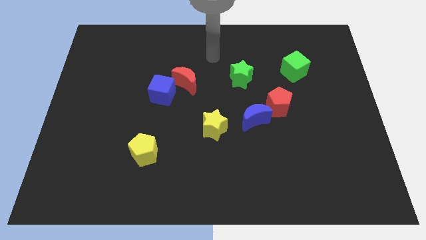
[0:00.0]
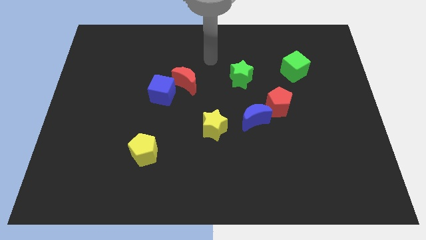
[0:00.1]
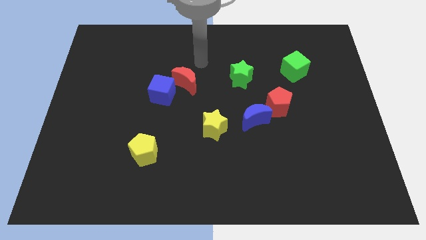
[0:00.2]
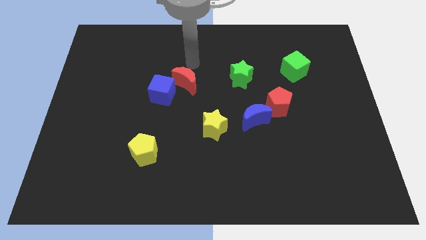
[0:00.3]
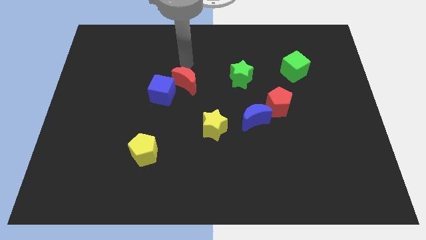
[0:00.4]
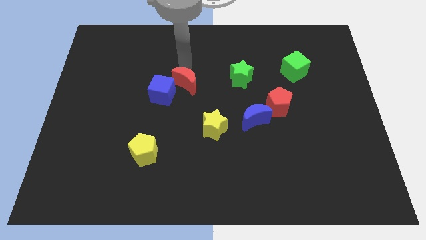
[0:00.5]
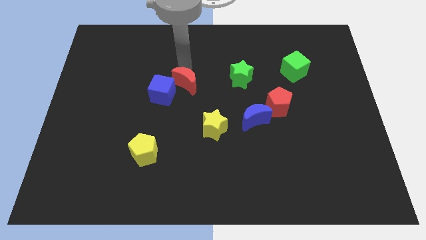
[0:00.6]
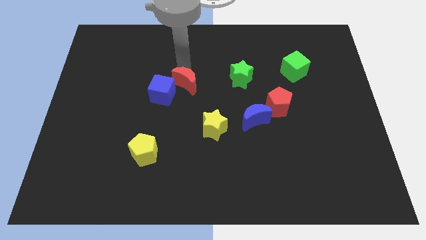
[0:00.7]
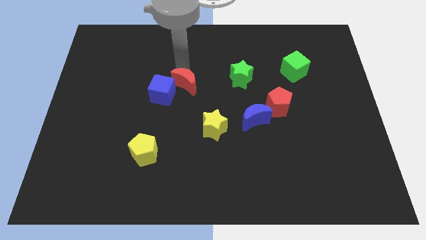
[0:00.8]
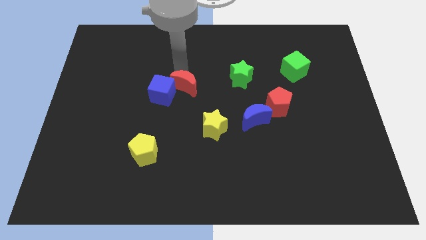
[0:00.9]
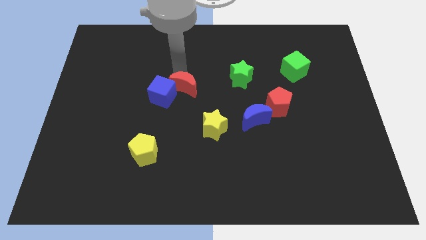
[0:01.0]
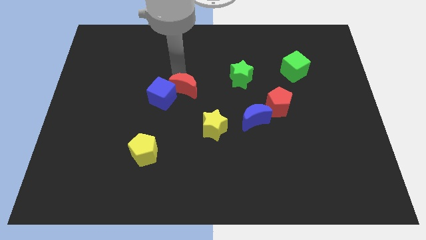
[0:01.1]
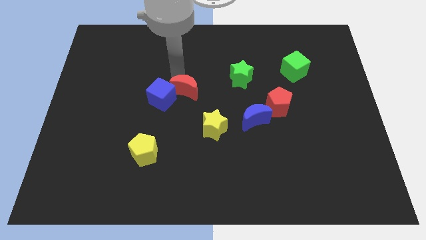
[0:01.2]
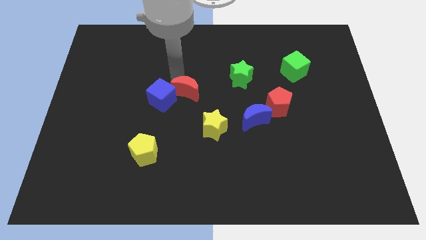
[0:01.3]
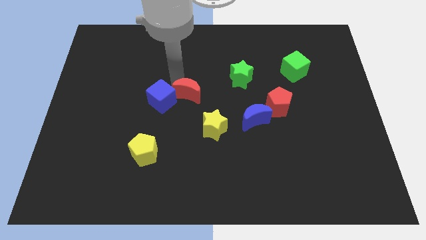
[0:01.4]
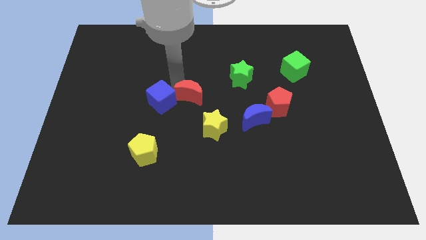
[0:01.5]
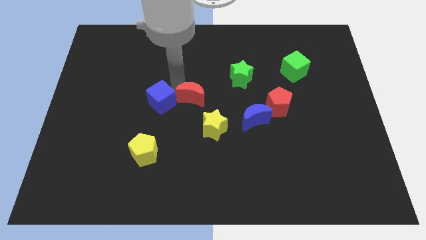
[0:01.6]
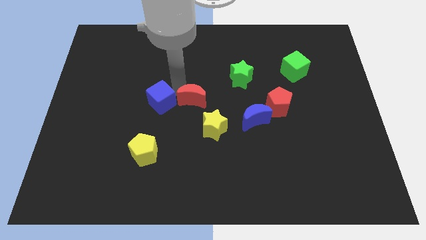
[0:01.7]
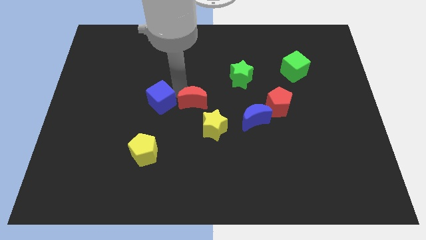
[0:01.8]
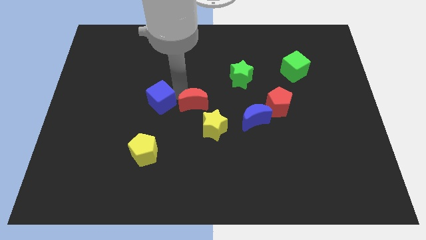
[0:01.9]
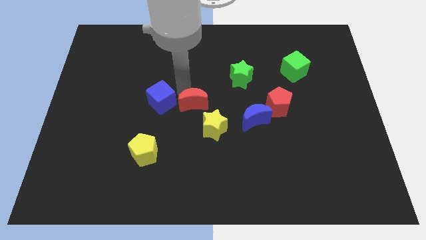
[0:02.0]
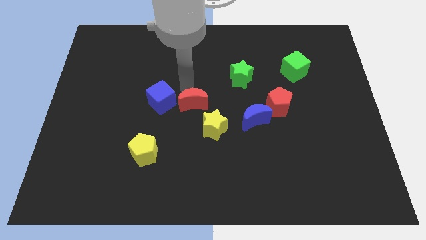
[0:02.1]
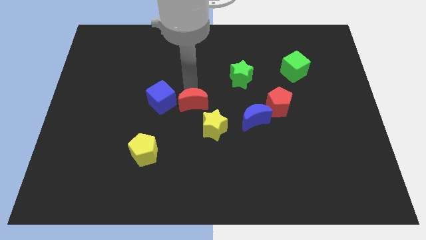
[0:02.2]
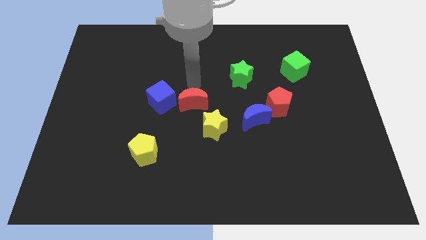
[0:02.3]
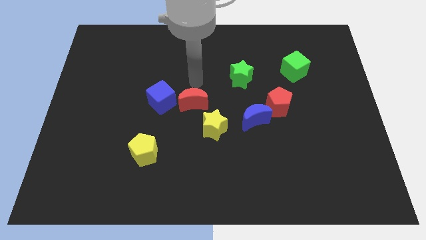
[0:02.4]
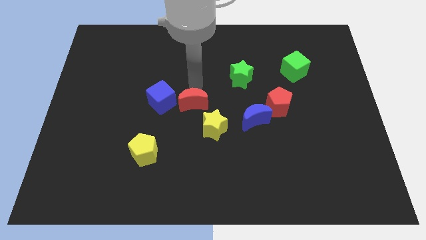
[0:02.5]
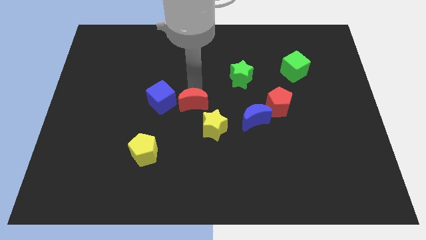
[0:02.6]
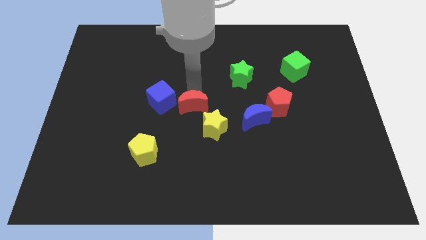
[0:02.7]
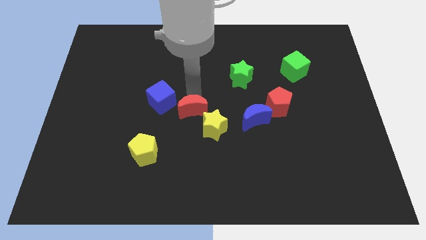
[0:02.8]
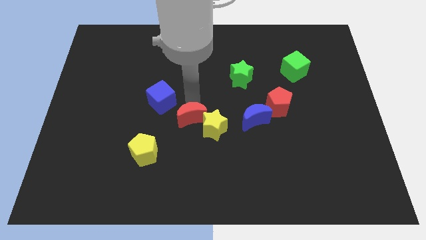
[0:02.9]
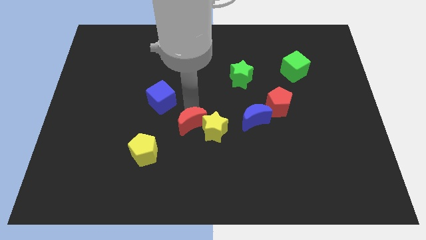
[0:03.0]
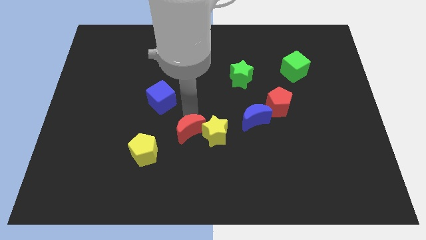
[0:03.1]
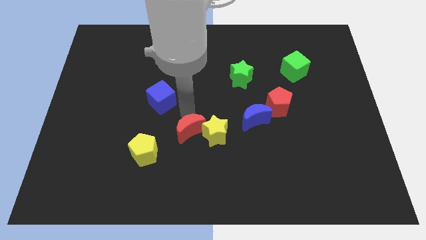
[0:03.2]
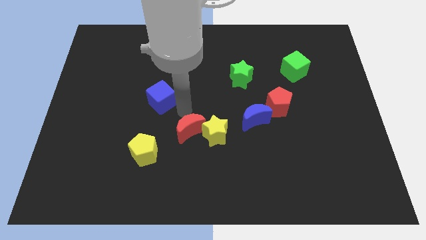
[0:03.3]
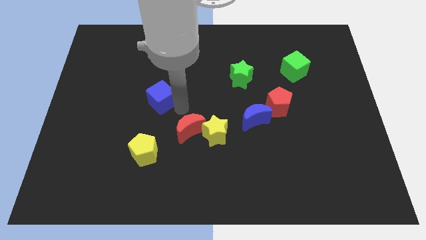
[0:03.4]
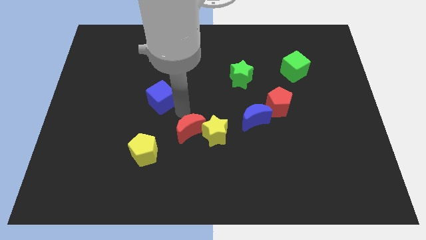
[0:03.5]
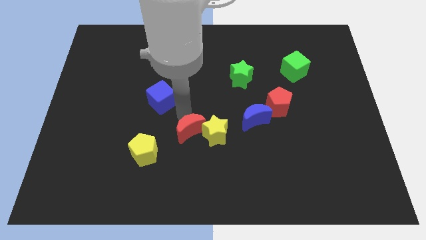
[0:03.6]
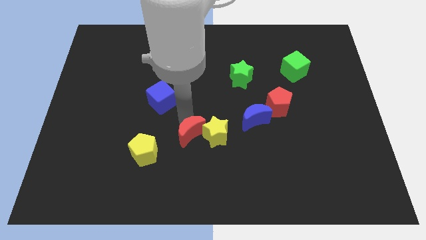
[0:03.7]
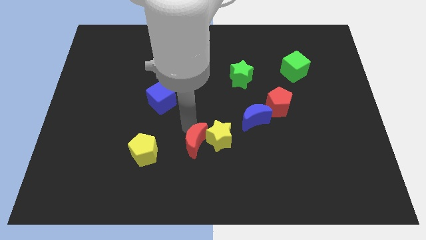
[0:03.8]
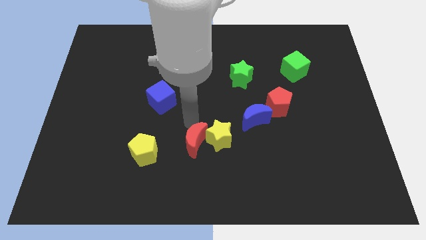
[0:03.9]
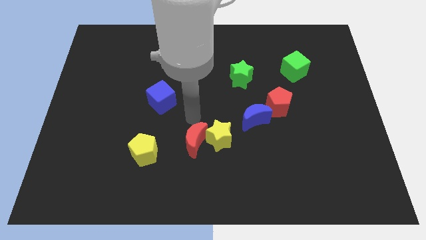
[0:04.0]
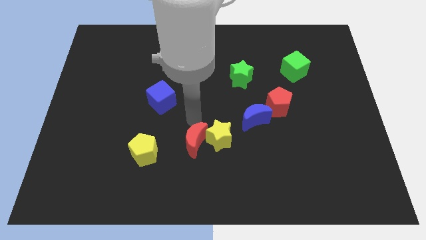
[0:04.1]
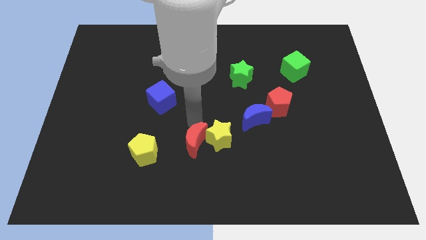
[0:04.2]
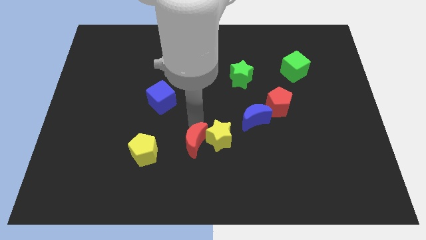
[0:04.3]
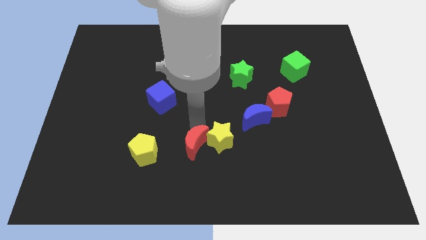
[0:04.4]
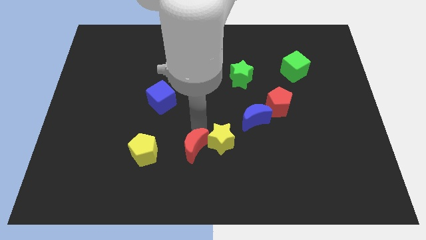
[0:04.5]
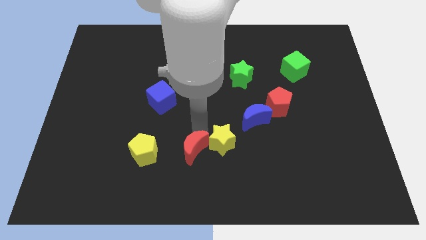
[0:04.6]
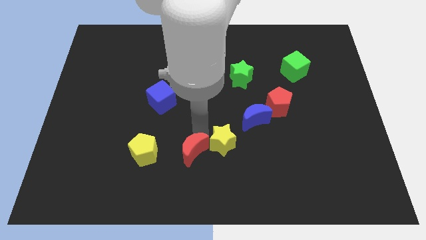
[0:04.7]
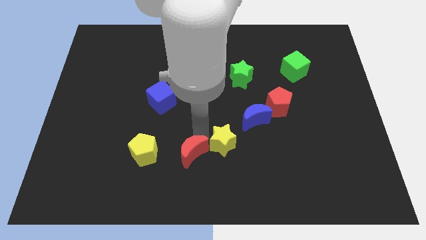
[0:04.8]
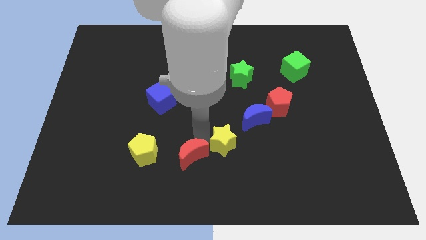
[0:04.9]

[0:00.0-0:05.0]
push the red moon to the bottom
